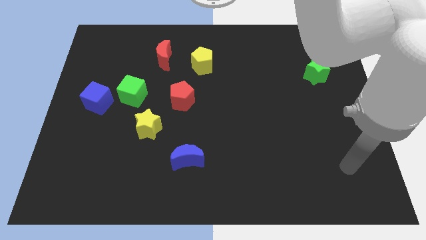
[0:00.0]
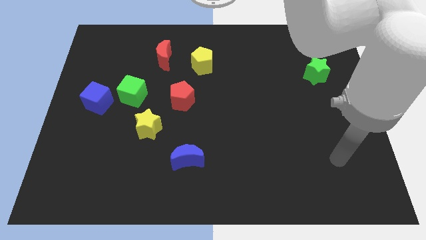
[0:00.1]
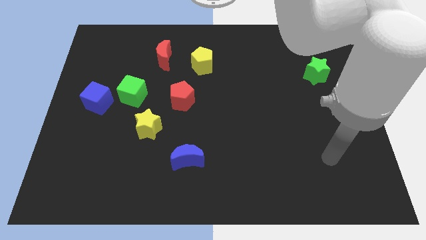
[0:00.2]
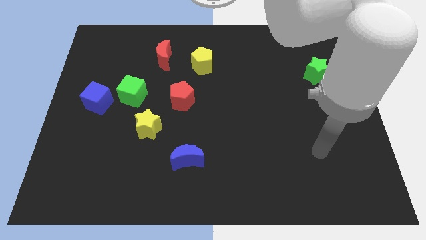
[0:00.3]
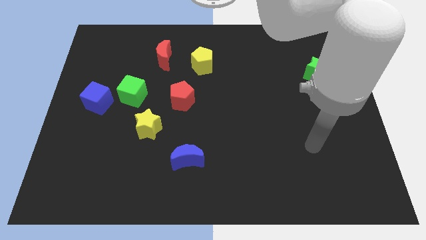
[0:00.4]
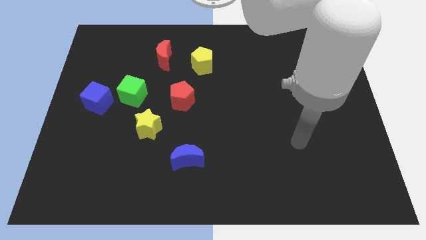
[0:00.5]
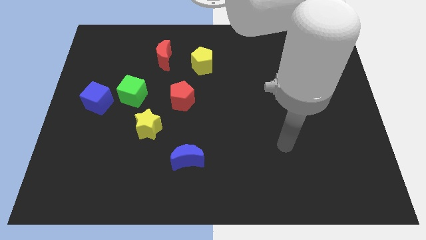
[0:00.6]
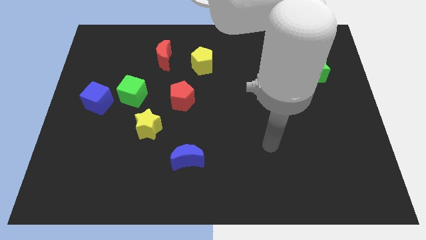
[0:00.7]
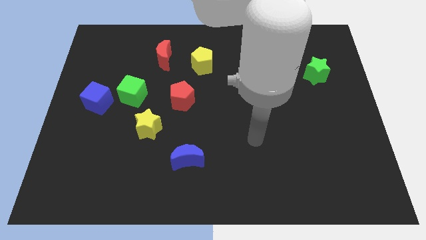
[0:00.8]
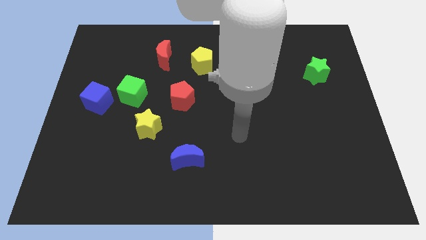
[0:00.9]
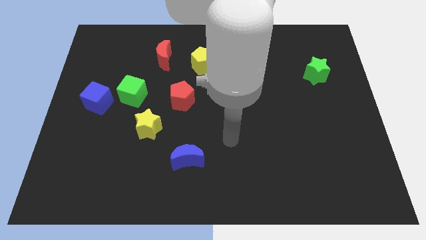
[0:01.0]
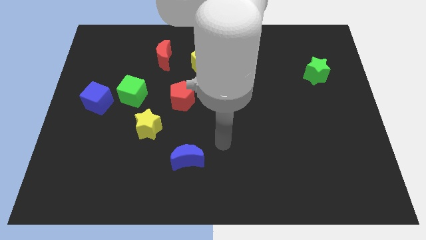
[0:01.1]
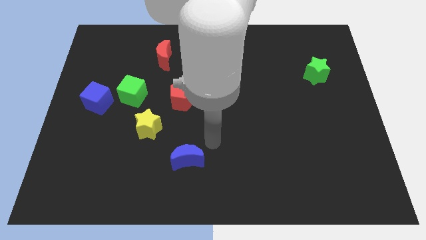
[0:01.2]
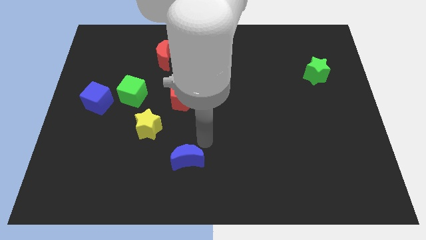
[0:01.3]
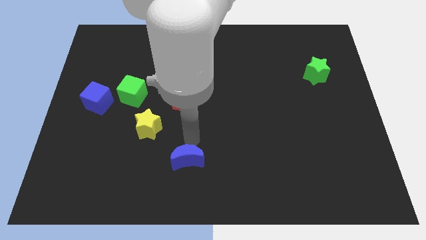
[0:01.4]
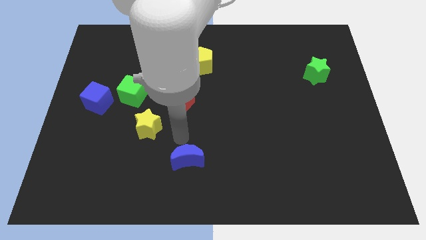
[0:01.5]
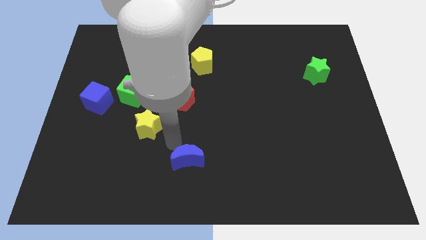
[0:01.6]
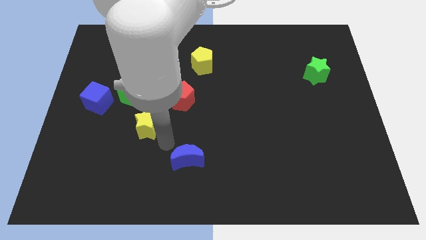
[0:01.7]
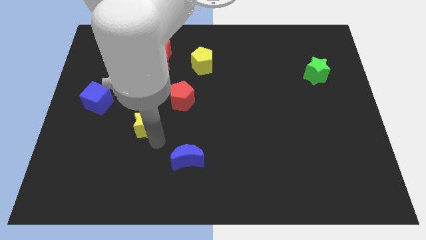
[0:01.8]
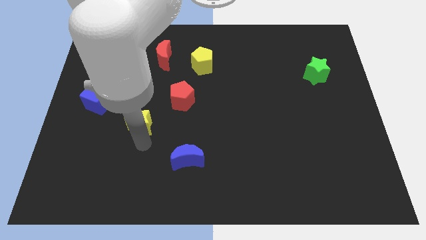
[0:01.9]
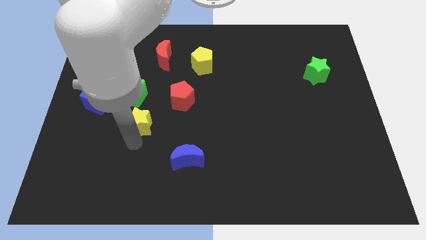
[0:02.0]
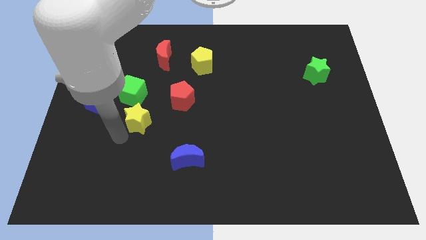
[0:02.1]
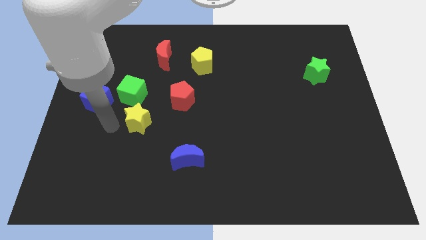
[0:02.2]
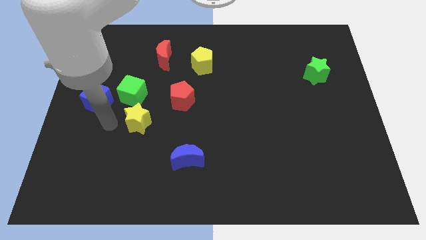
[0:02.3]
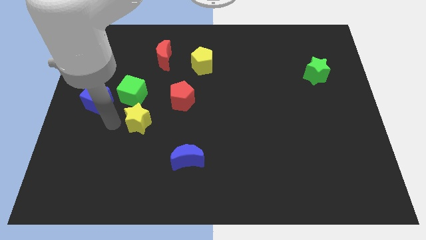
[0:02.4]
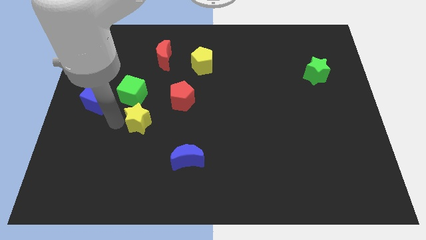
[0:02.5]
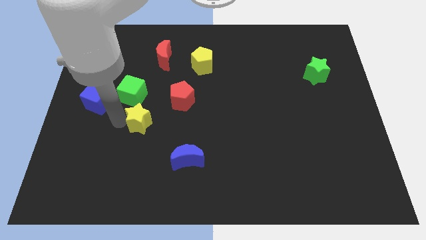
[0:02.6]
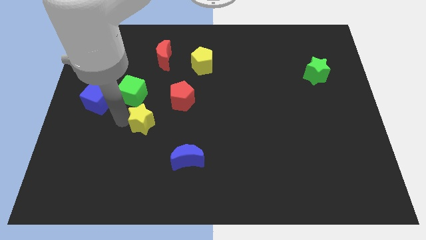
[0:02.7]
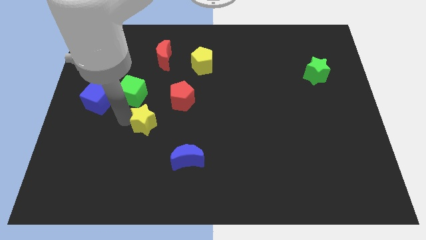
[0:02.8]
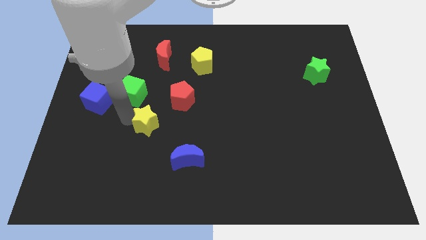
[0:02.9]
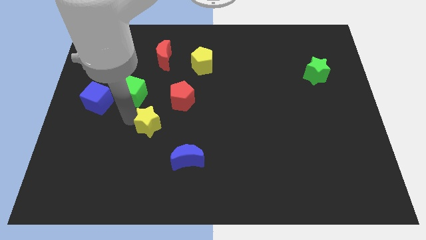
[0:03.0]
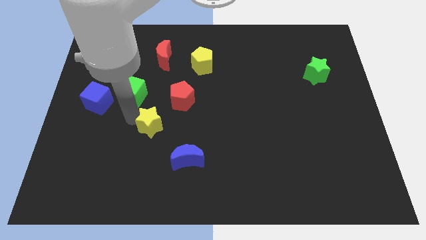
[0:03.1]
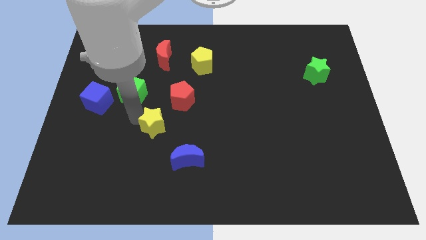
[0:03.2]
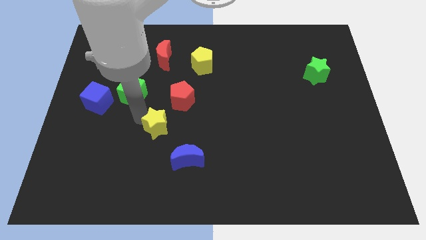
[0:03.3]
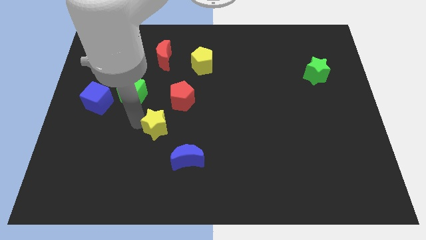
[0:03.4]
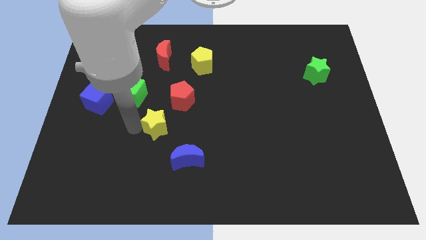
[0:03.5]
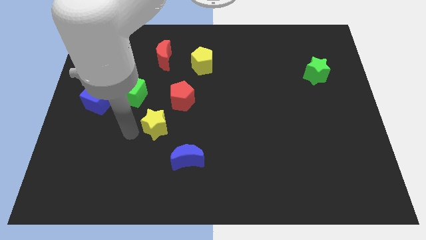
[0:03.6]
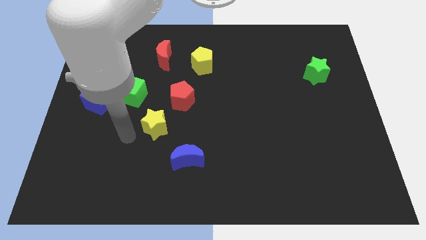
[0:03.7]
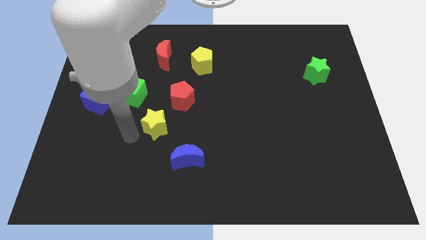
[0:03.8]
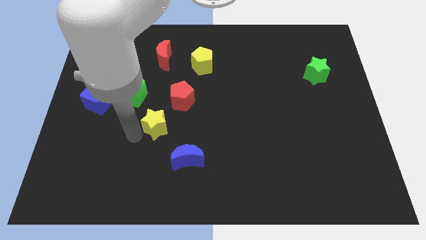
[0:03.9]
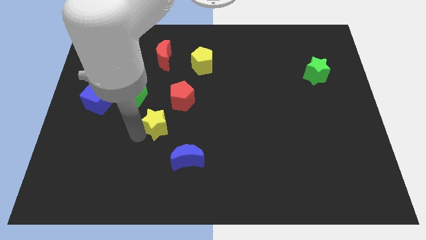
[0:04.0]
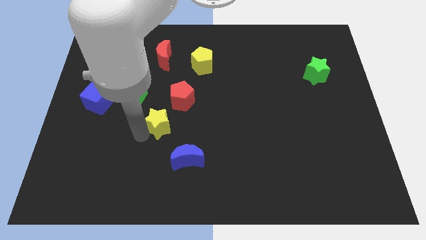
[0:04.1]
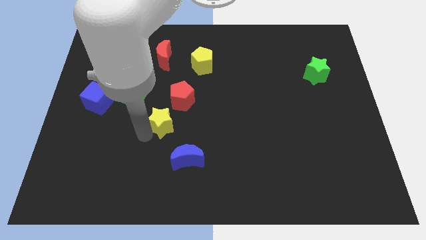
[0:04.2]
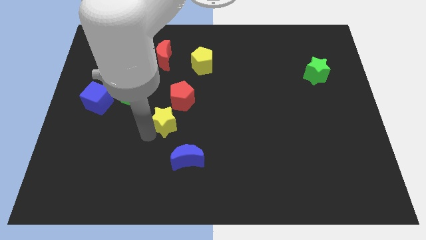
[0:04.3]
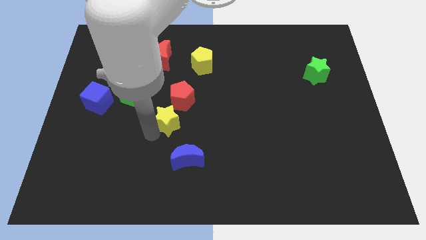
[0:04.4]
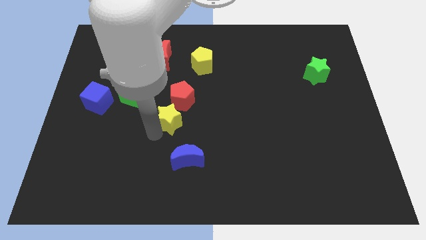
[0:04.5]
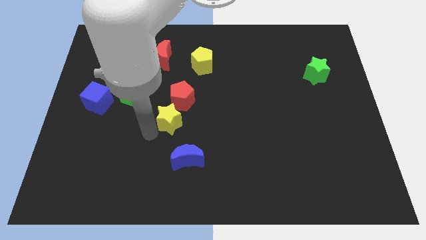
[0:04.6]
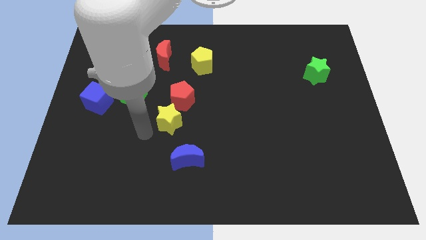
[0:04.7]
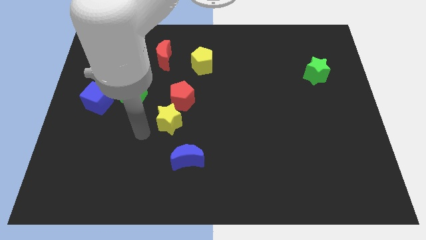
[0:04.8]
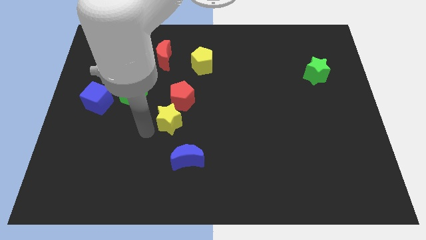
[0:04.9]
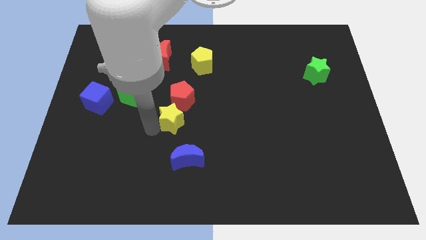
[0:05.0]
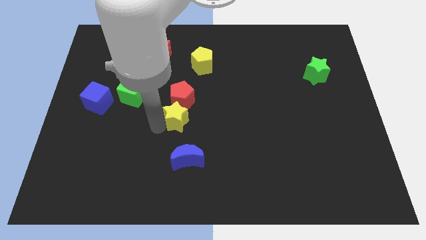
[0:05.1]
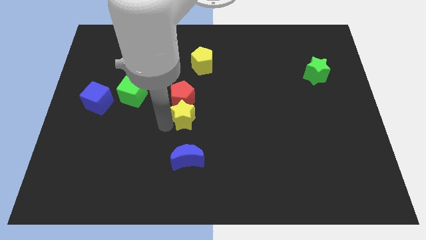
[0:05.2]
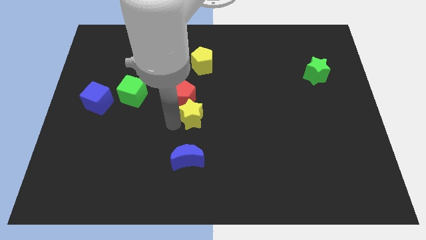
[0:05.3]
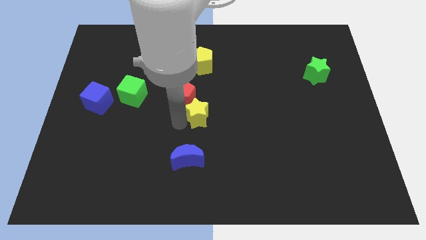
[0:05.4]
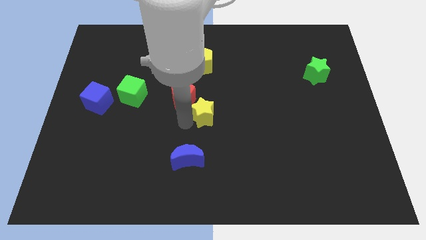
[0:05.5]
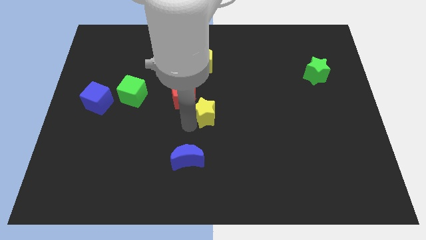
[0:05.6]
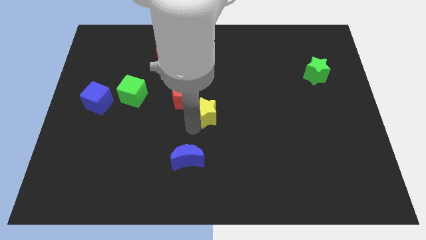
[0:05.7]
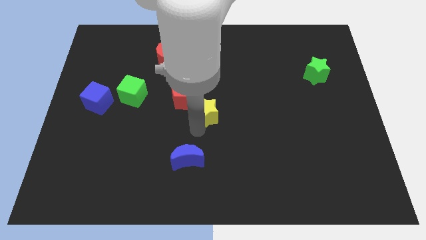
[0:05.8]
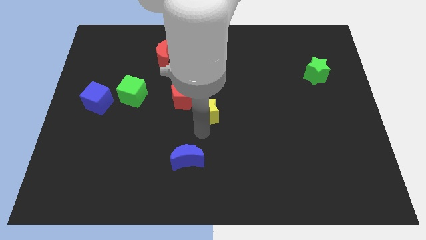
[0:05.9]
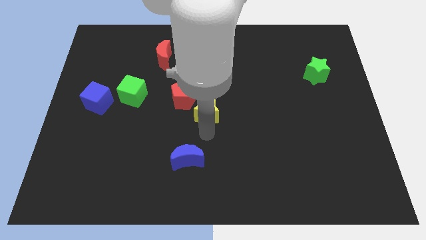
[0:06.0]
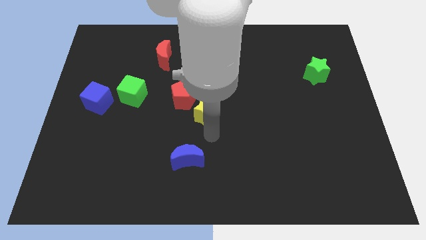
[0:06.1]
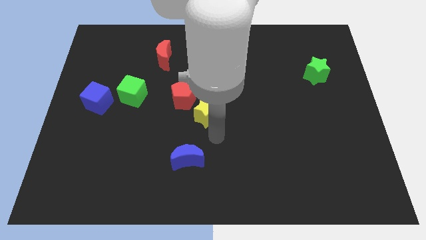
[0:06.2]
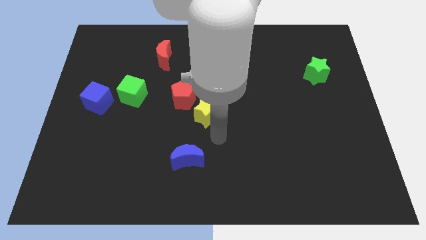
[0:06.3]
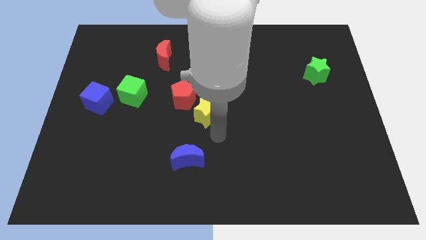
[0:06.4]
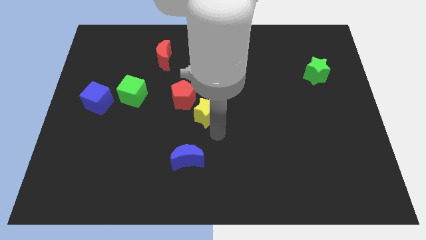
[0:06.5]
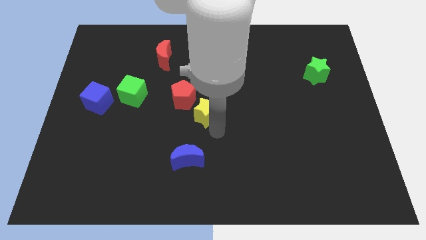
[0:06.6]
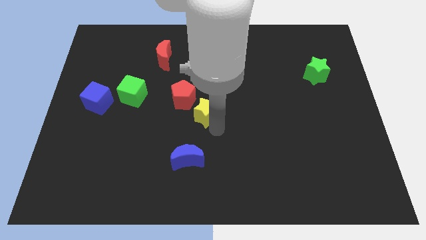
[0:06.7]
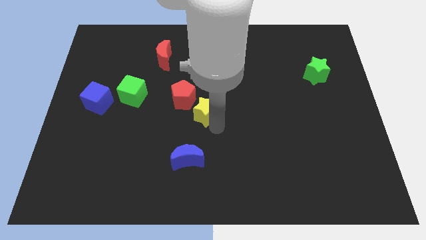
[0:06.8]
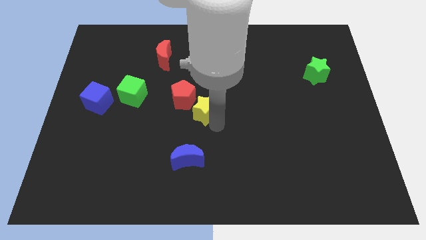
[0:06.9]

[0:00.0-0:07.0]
push the yellow star right of the red pentagon
